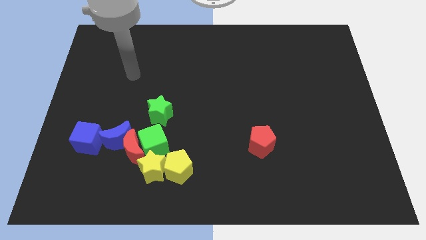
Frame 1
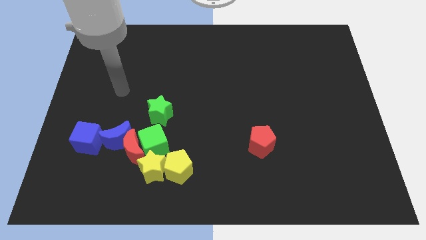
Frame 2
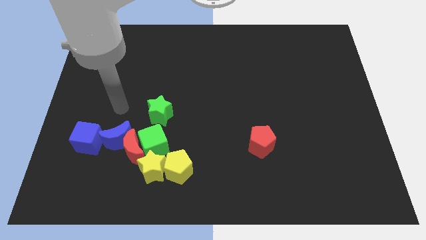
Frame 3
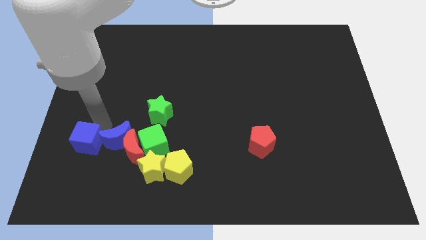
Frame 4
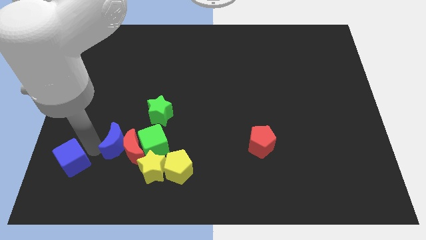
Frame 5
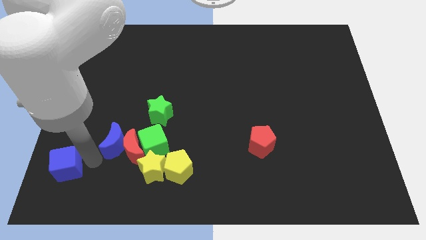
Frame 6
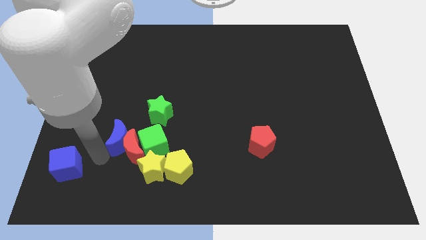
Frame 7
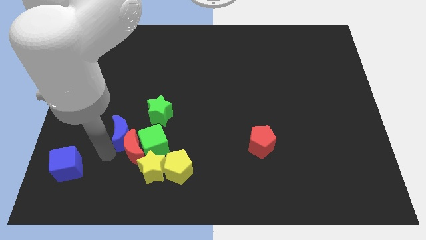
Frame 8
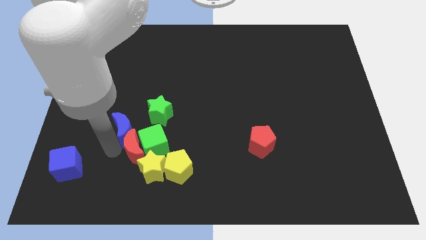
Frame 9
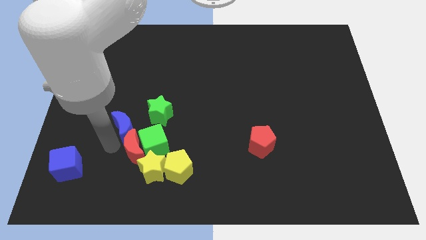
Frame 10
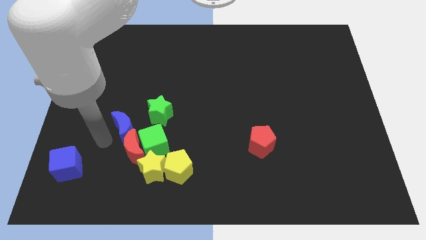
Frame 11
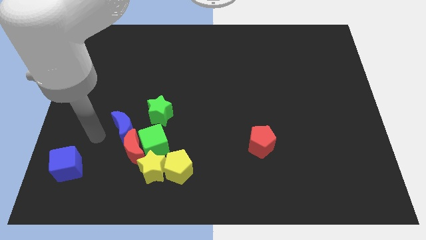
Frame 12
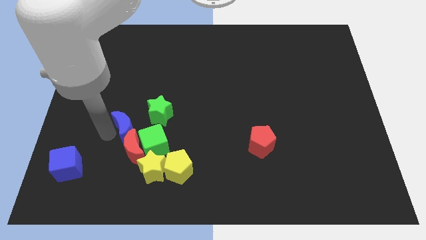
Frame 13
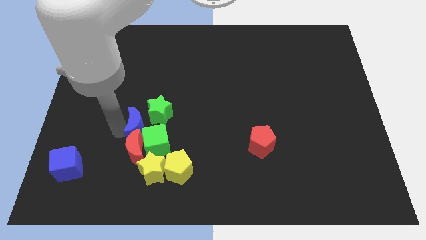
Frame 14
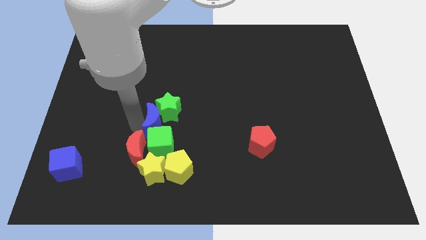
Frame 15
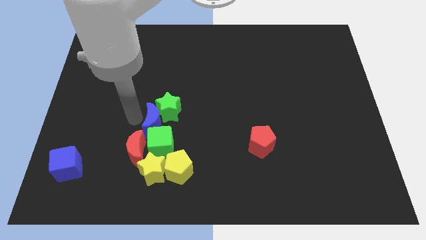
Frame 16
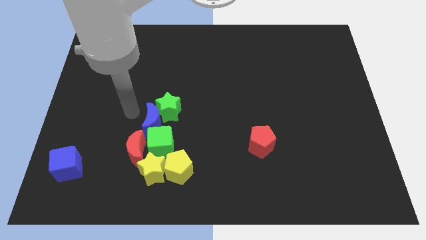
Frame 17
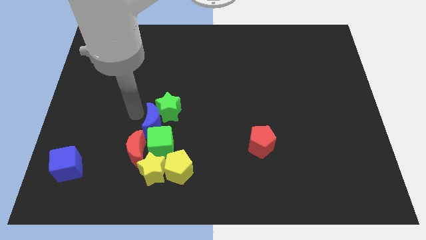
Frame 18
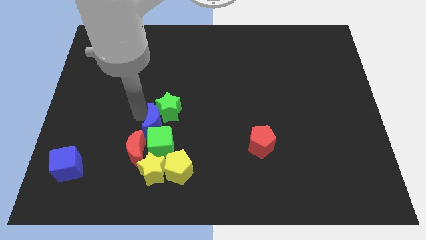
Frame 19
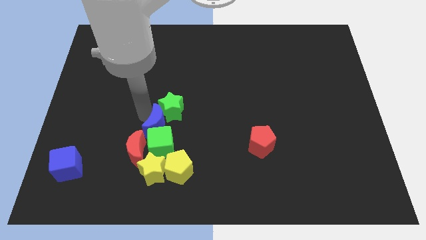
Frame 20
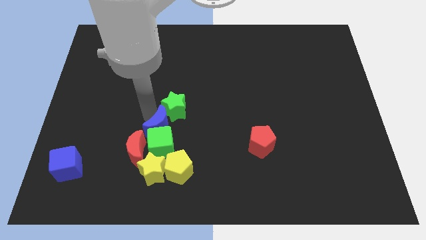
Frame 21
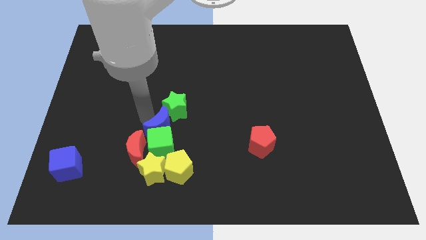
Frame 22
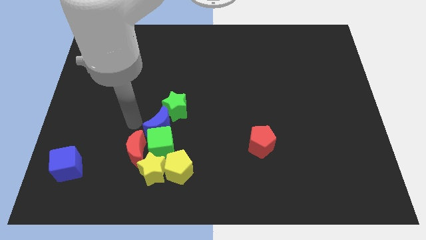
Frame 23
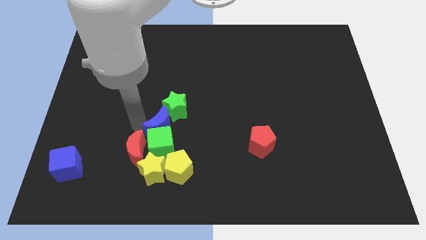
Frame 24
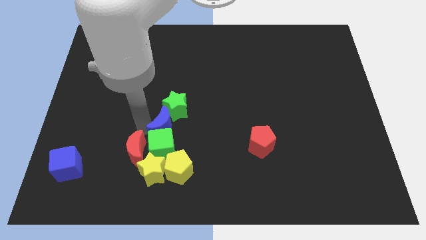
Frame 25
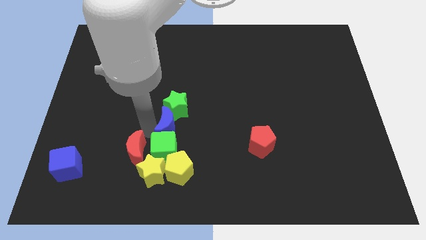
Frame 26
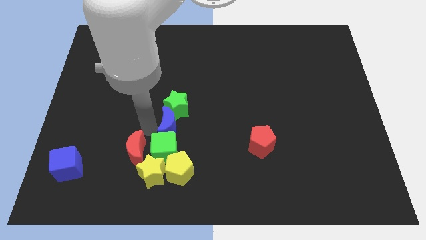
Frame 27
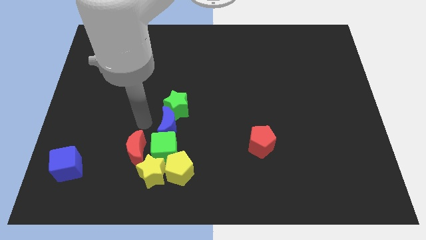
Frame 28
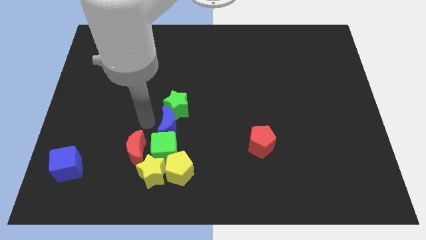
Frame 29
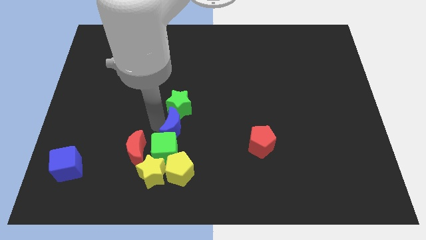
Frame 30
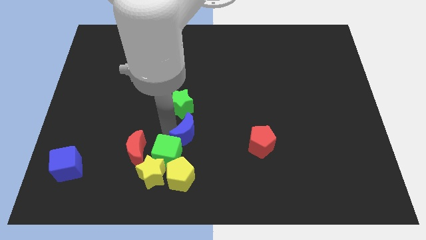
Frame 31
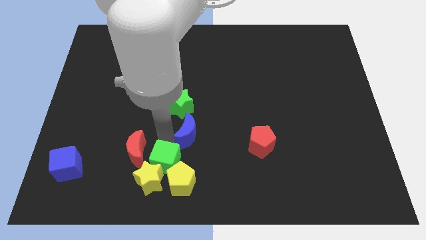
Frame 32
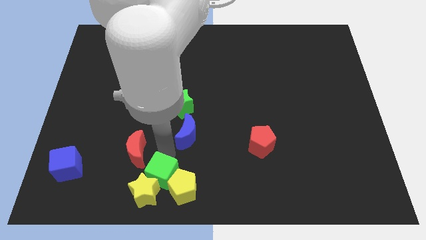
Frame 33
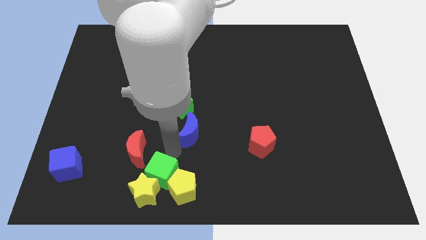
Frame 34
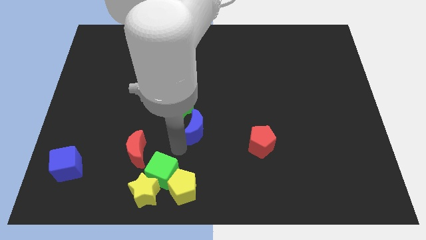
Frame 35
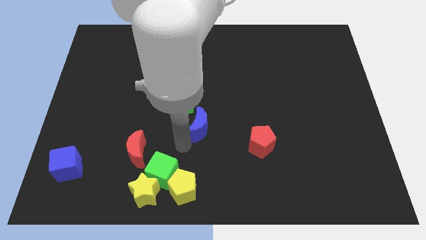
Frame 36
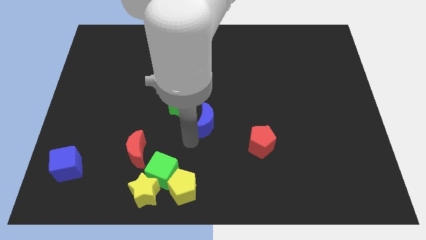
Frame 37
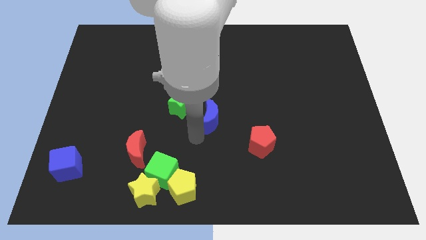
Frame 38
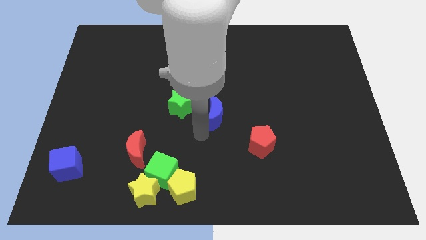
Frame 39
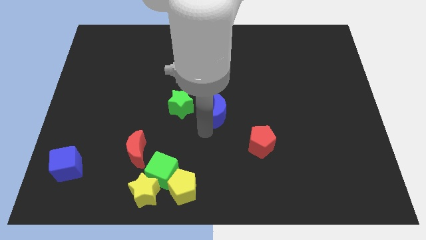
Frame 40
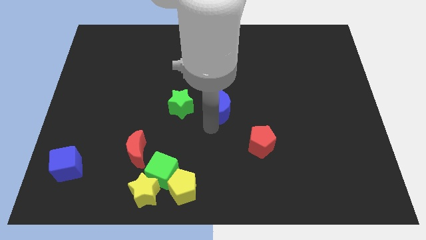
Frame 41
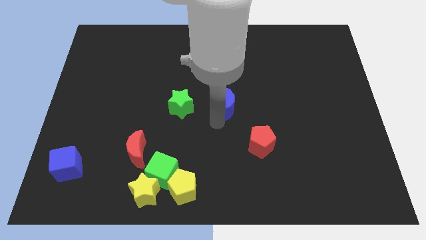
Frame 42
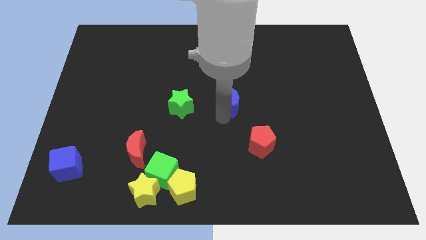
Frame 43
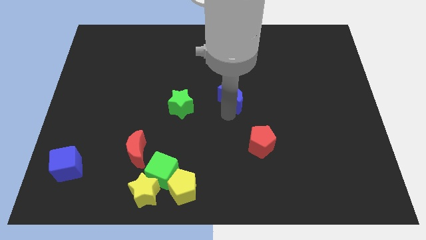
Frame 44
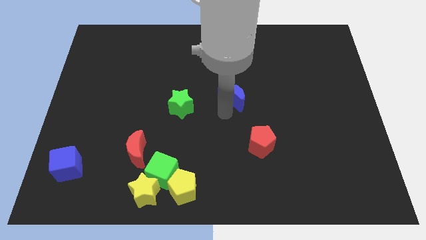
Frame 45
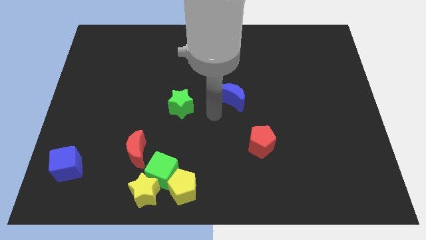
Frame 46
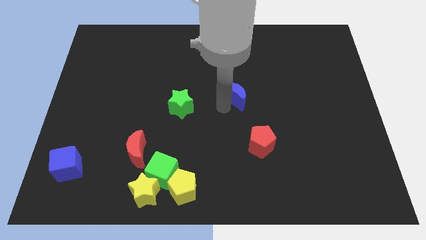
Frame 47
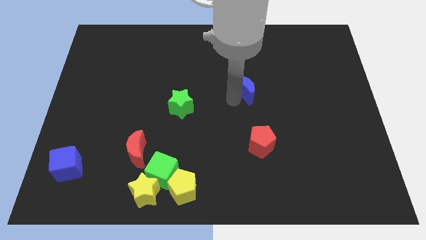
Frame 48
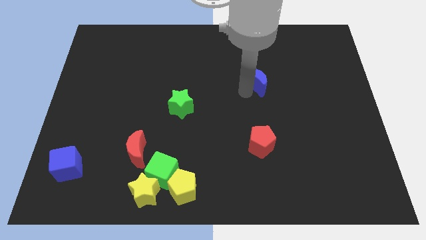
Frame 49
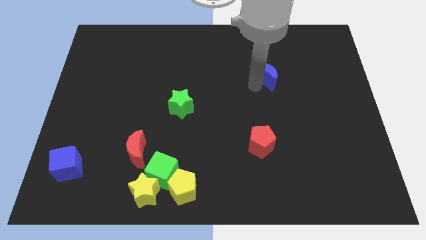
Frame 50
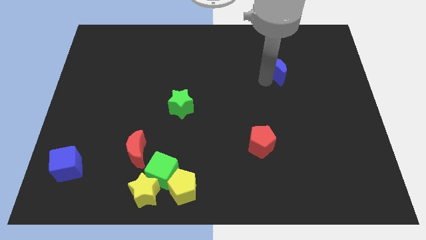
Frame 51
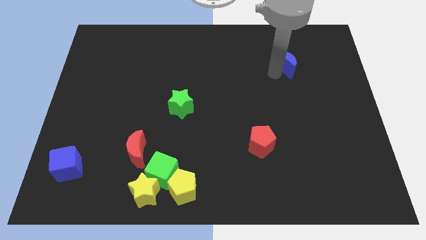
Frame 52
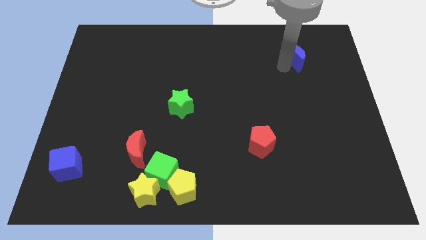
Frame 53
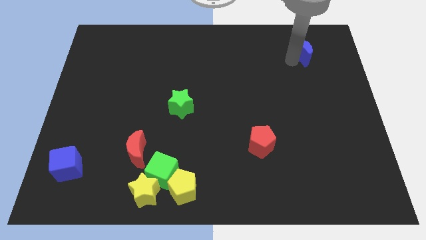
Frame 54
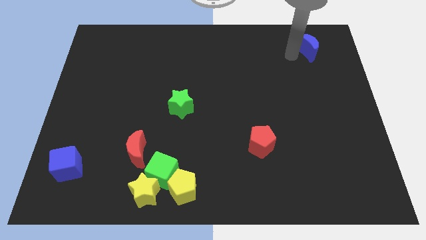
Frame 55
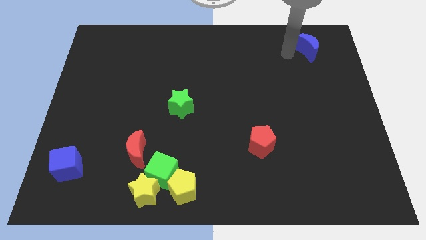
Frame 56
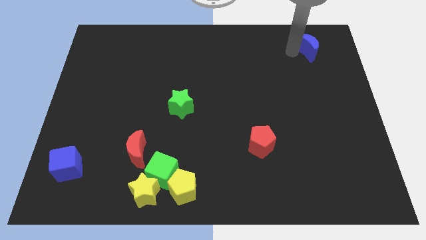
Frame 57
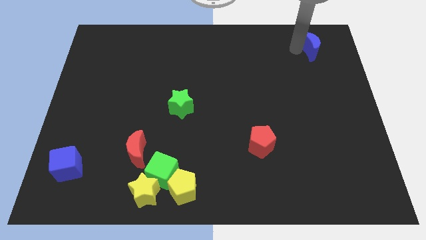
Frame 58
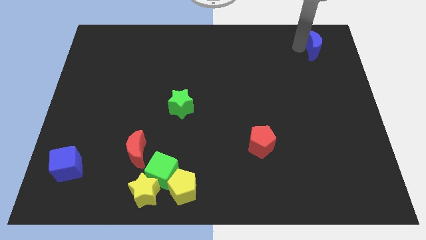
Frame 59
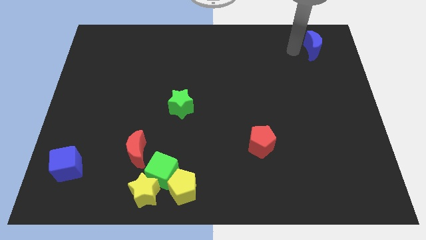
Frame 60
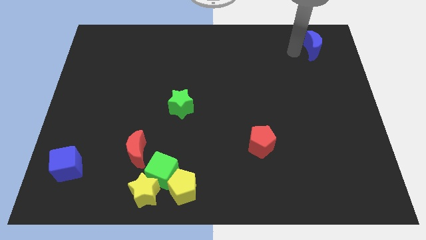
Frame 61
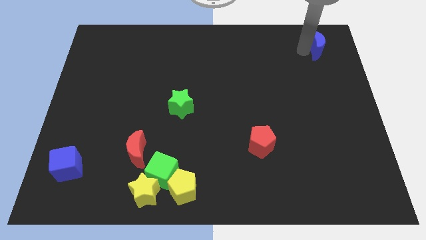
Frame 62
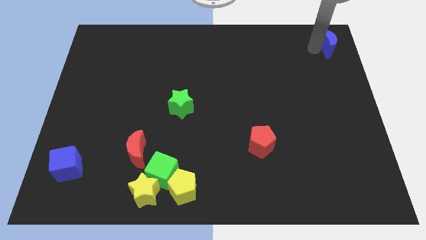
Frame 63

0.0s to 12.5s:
move the blue moon to the top right

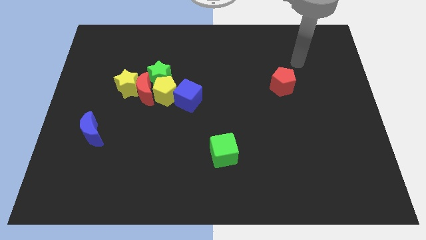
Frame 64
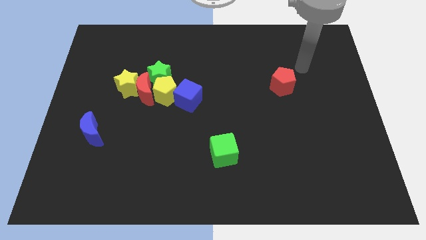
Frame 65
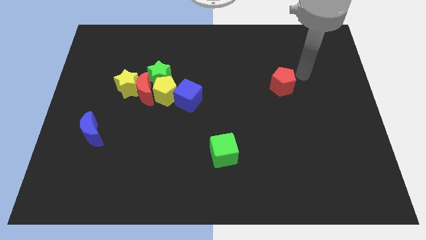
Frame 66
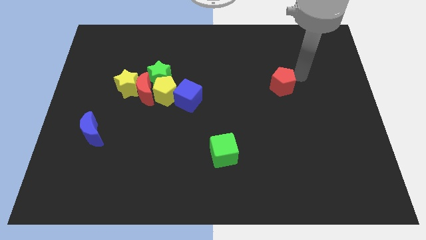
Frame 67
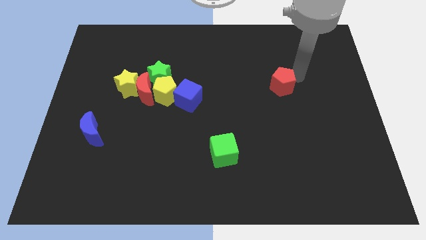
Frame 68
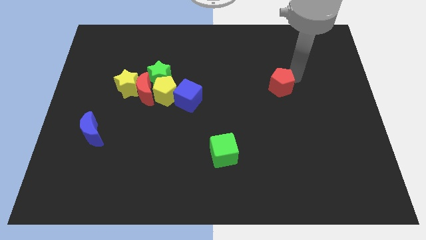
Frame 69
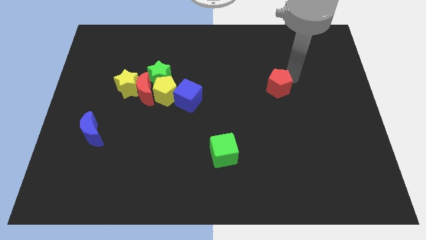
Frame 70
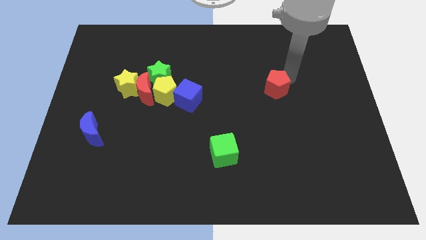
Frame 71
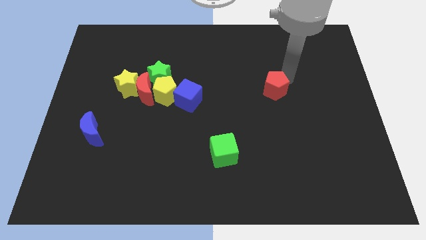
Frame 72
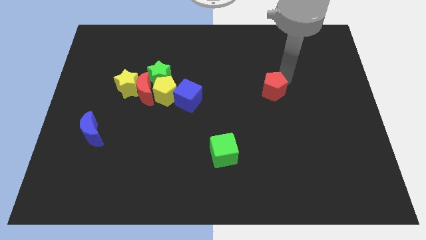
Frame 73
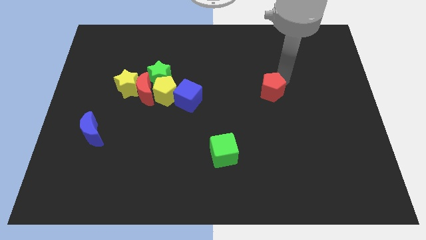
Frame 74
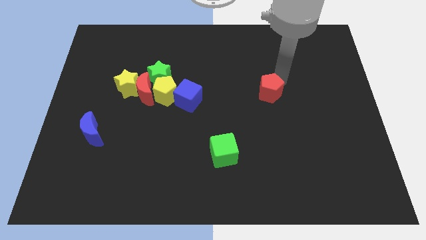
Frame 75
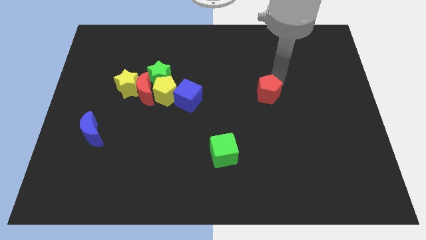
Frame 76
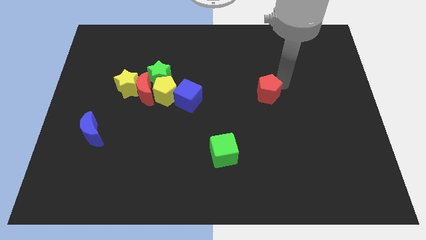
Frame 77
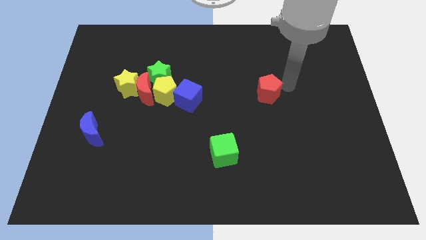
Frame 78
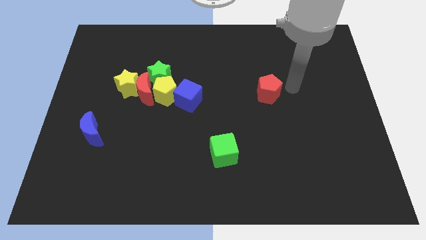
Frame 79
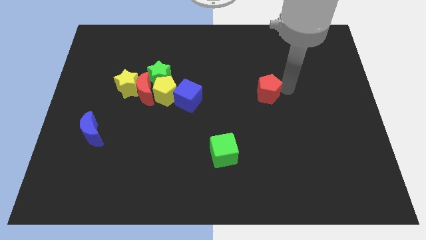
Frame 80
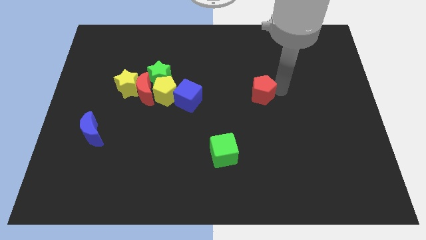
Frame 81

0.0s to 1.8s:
slide the red pentagon to the middle
